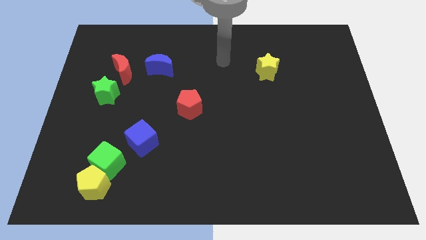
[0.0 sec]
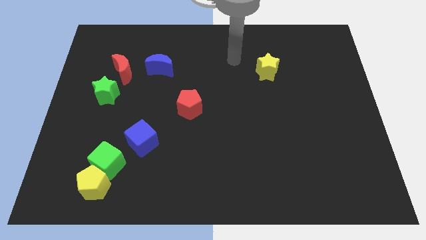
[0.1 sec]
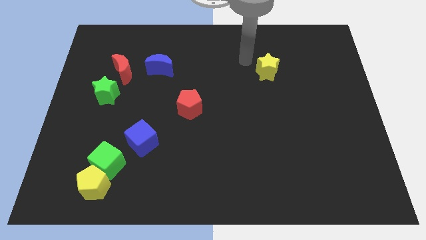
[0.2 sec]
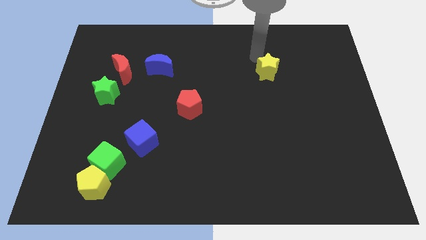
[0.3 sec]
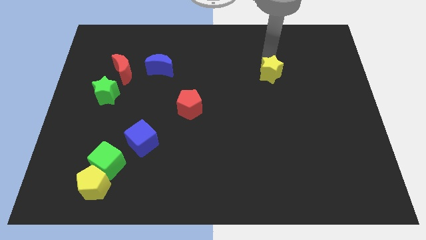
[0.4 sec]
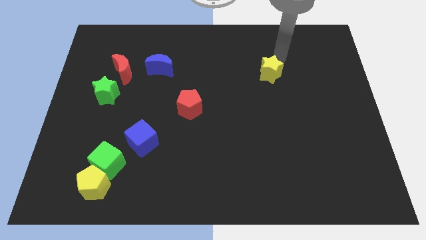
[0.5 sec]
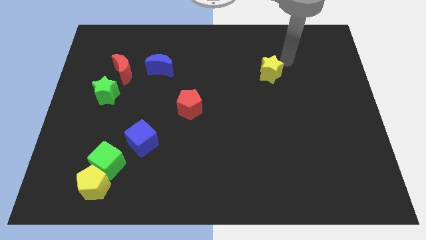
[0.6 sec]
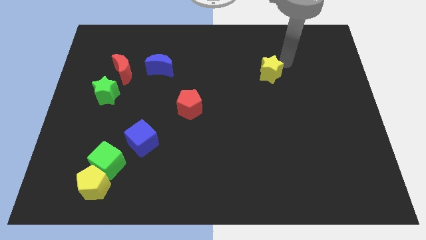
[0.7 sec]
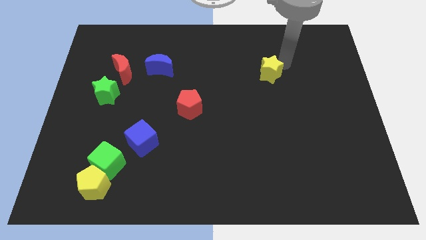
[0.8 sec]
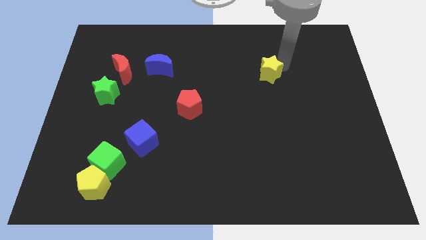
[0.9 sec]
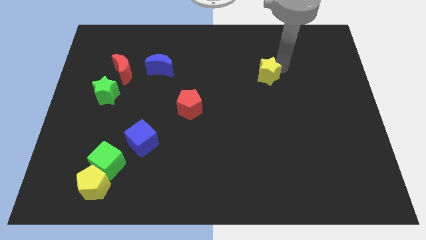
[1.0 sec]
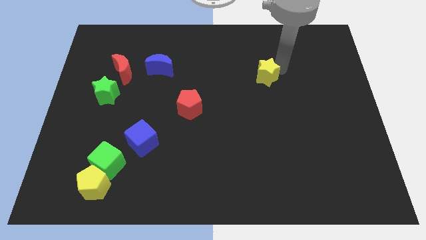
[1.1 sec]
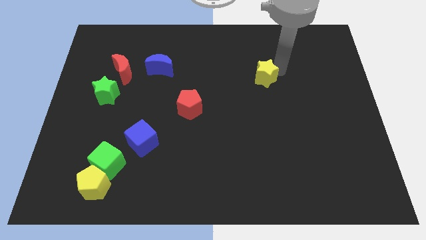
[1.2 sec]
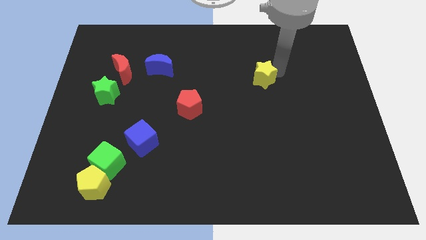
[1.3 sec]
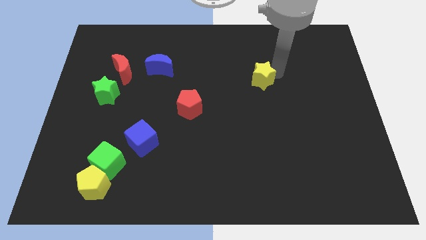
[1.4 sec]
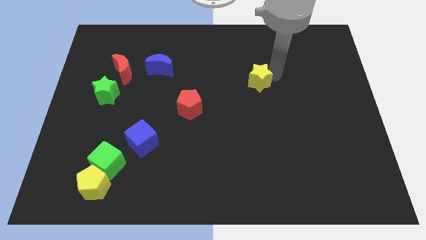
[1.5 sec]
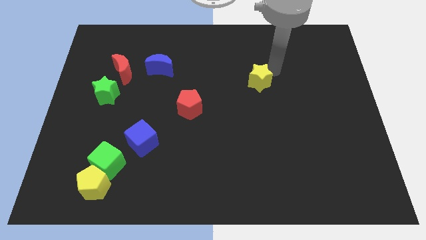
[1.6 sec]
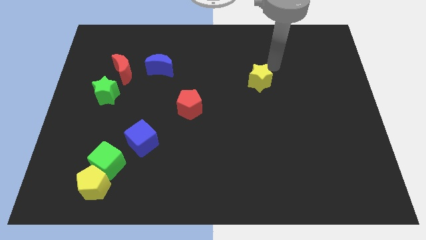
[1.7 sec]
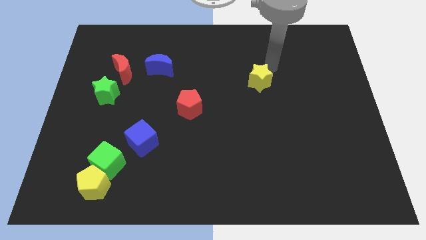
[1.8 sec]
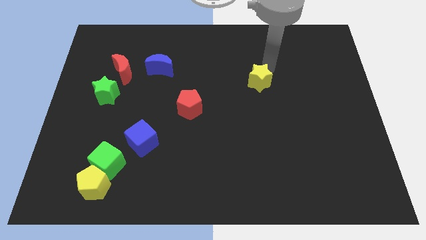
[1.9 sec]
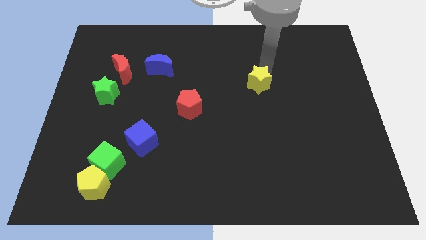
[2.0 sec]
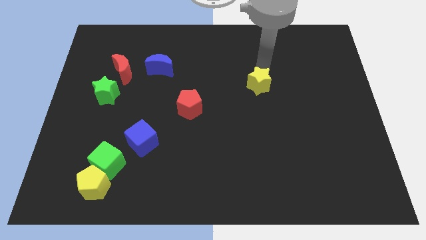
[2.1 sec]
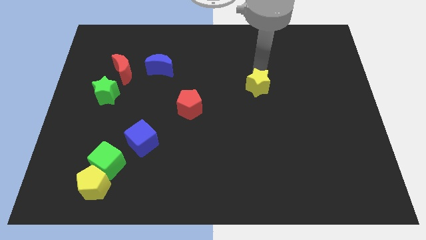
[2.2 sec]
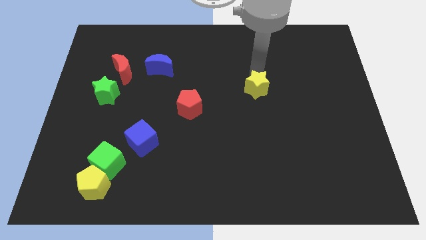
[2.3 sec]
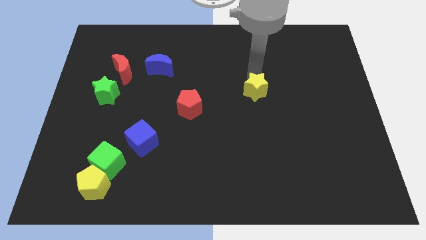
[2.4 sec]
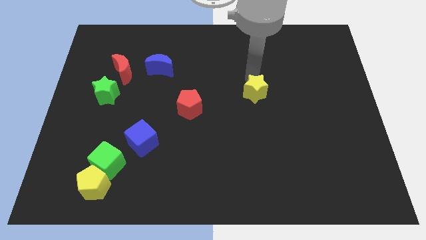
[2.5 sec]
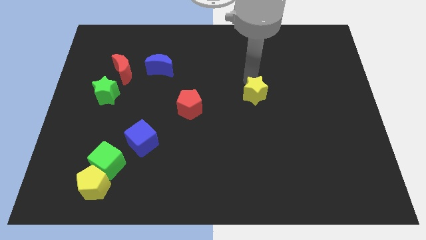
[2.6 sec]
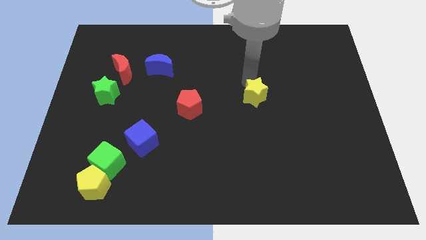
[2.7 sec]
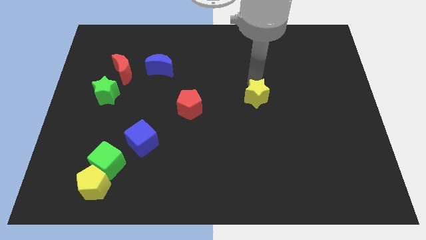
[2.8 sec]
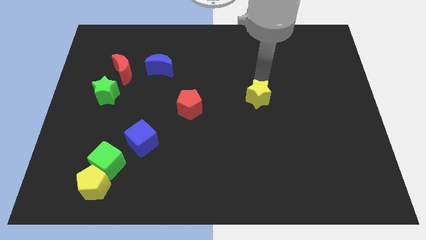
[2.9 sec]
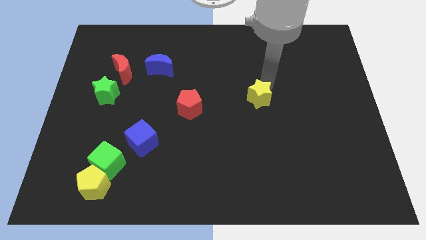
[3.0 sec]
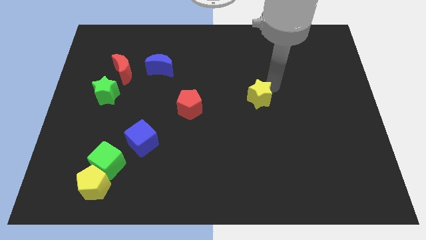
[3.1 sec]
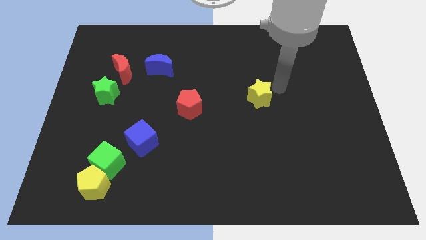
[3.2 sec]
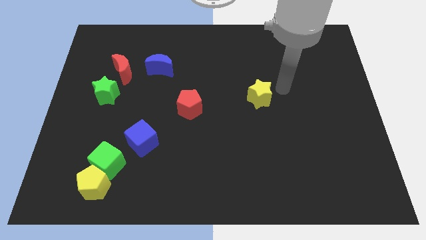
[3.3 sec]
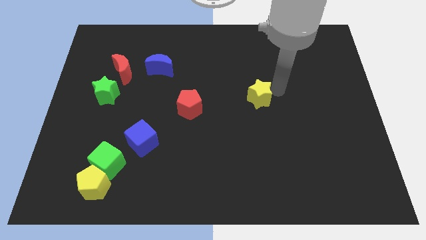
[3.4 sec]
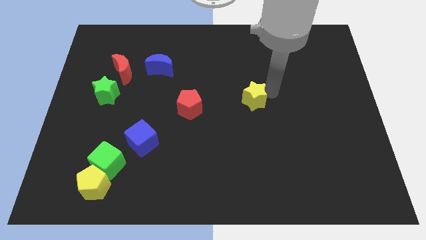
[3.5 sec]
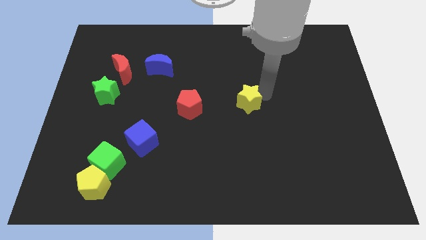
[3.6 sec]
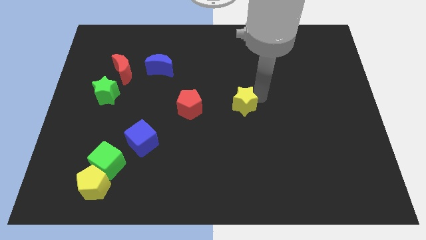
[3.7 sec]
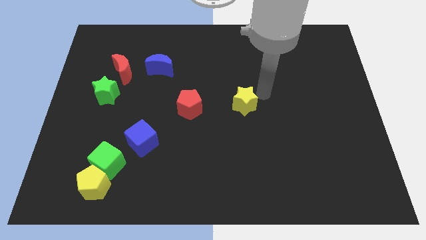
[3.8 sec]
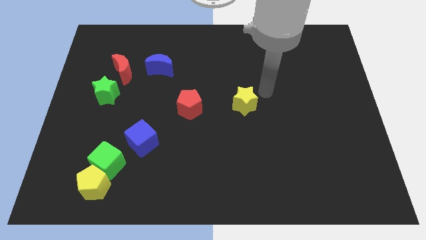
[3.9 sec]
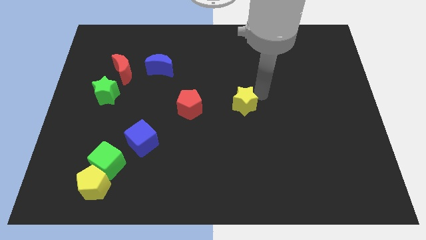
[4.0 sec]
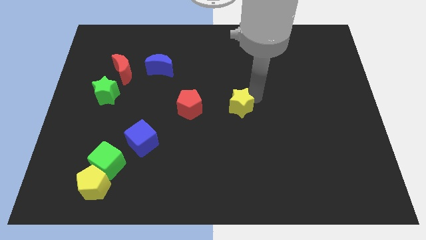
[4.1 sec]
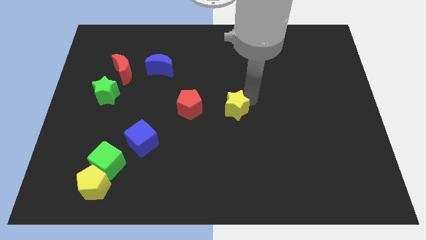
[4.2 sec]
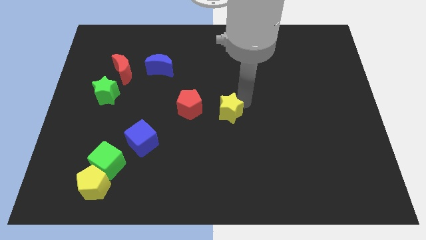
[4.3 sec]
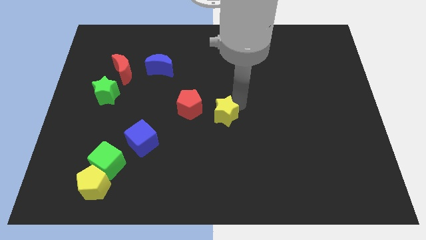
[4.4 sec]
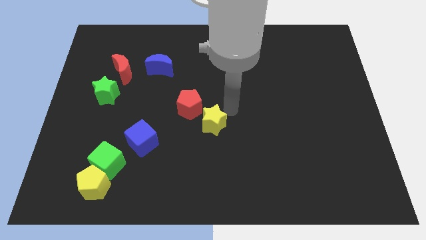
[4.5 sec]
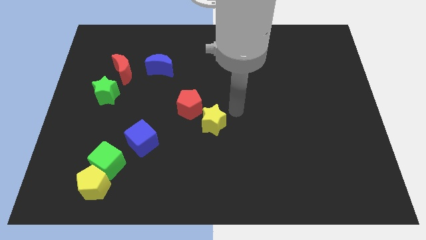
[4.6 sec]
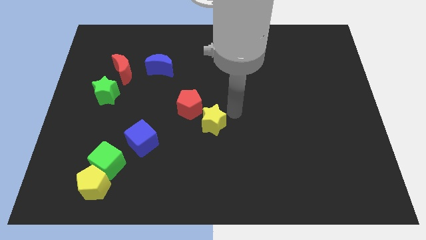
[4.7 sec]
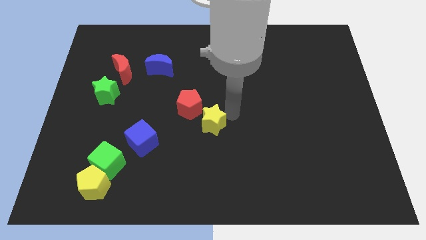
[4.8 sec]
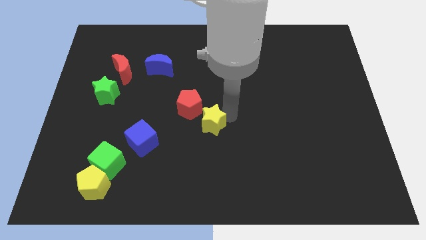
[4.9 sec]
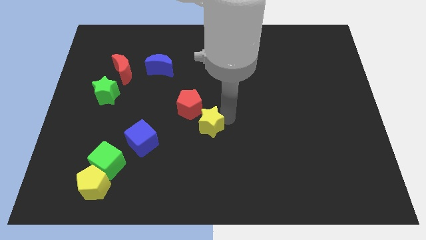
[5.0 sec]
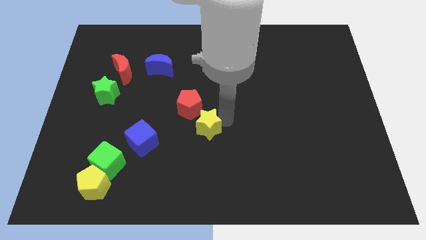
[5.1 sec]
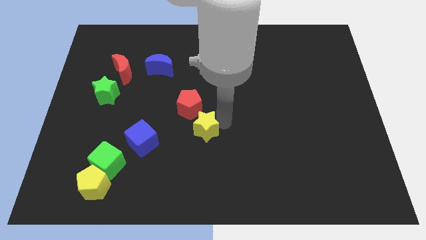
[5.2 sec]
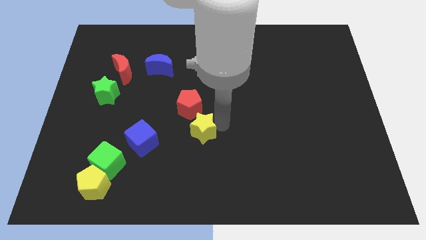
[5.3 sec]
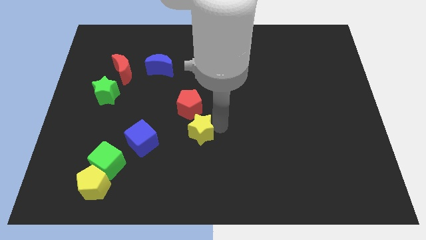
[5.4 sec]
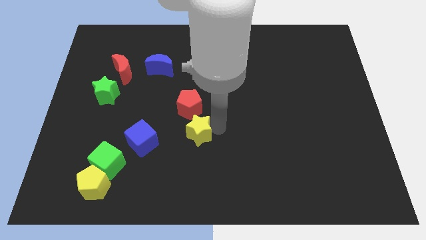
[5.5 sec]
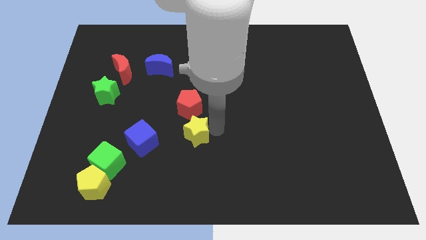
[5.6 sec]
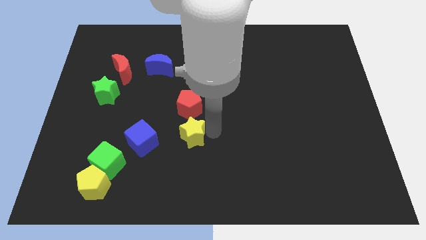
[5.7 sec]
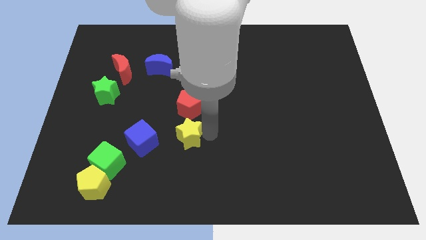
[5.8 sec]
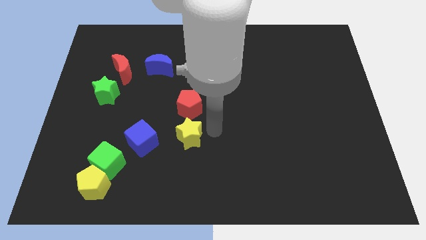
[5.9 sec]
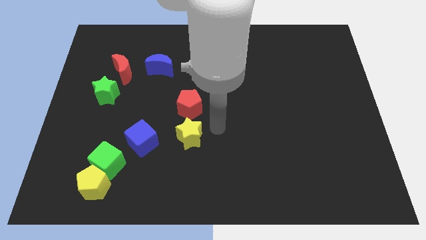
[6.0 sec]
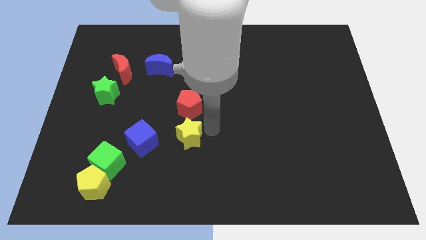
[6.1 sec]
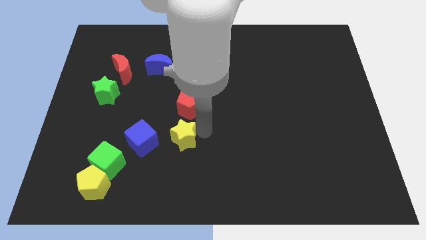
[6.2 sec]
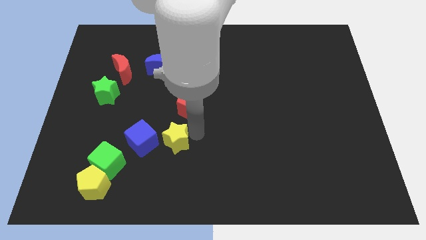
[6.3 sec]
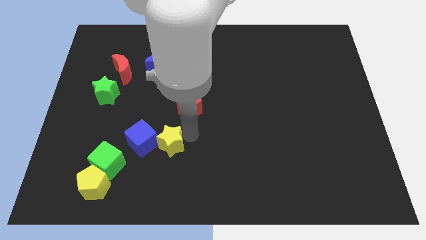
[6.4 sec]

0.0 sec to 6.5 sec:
slide the yellow star close to the blue cube

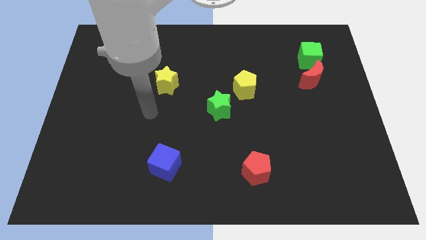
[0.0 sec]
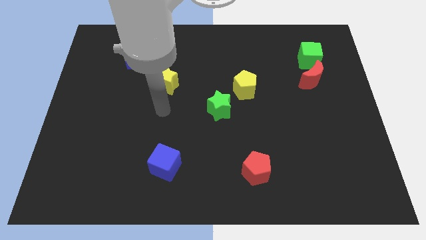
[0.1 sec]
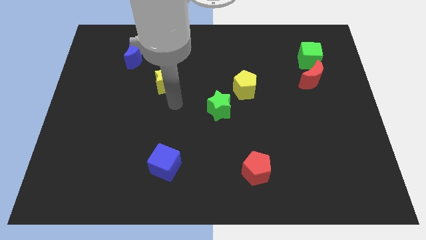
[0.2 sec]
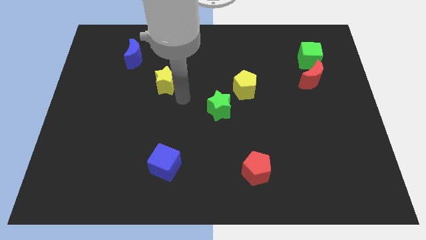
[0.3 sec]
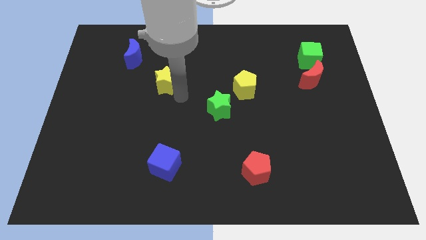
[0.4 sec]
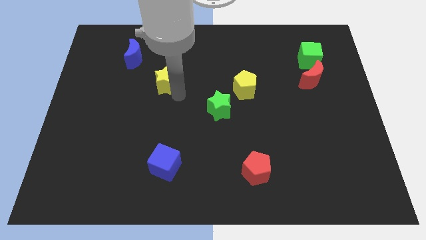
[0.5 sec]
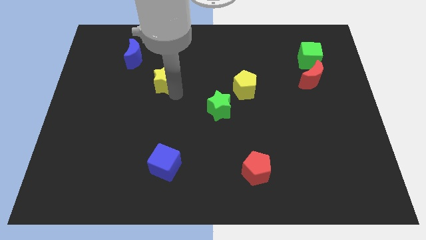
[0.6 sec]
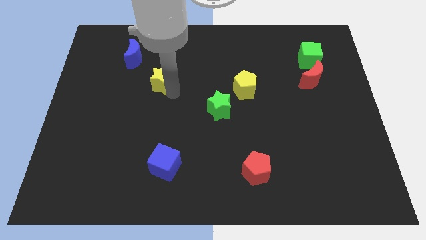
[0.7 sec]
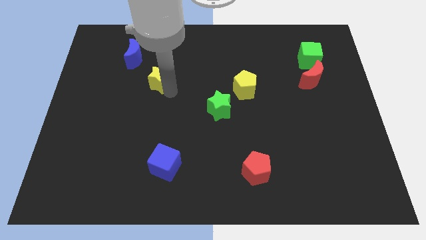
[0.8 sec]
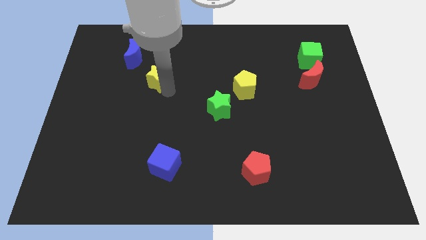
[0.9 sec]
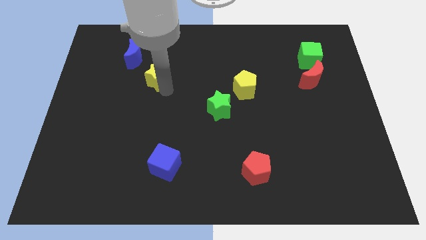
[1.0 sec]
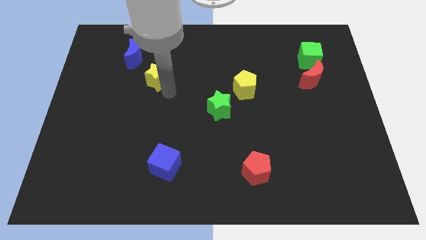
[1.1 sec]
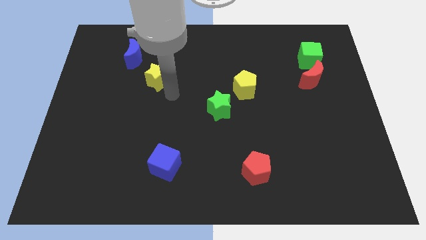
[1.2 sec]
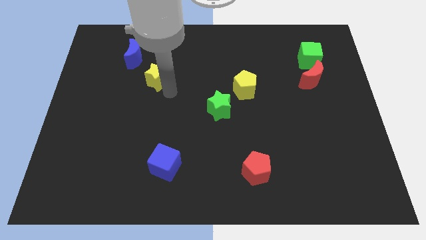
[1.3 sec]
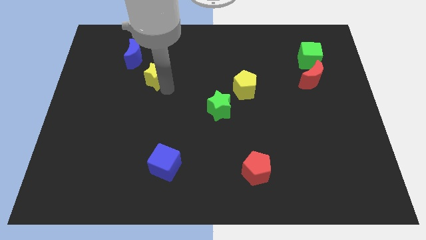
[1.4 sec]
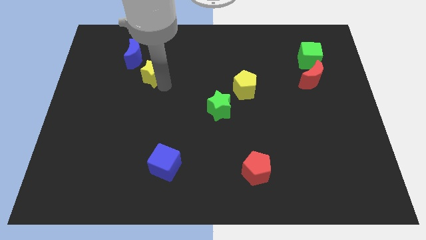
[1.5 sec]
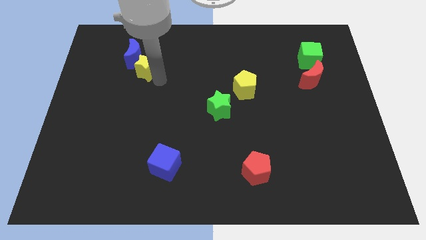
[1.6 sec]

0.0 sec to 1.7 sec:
put the yellow star close to the blue moon
